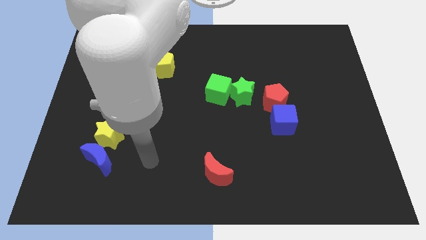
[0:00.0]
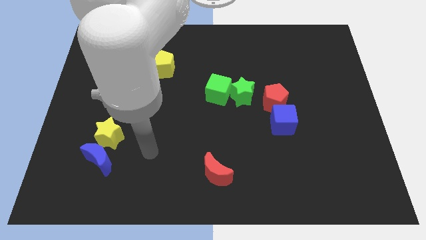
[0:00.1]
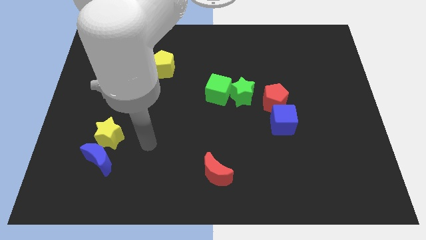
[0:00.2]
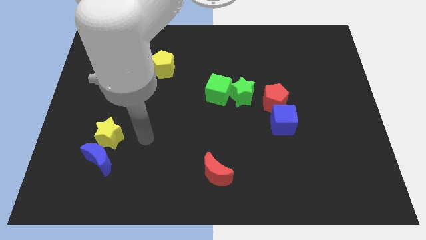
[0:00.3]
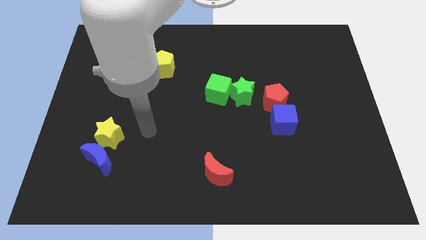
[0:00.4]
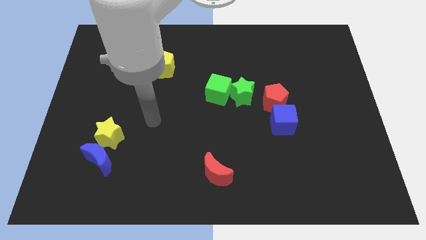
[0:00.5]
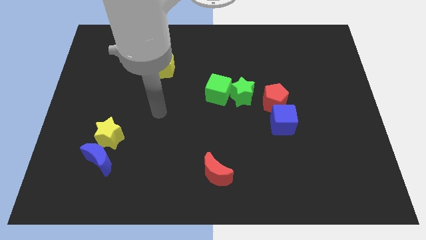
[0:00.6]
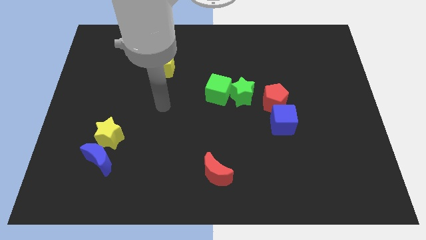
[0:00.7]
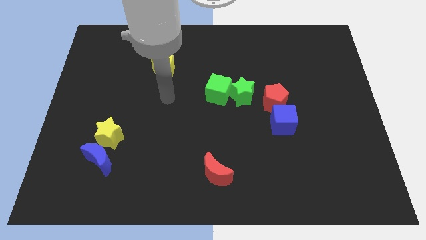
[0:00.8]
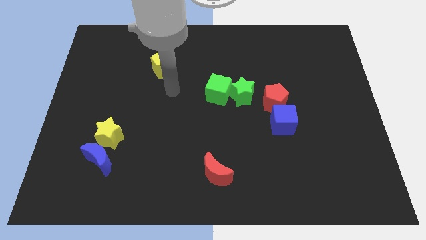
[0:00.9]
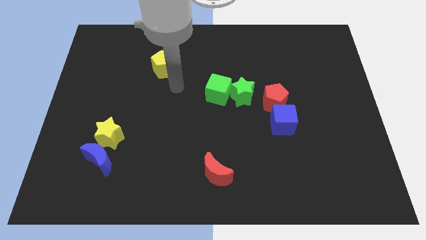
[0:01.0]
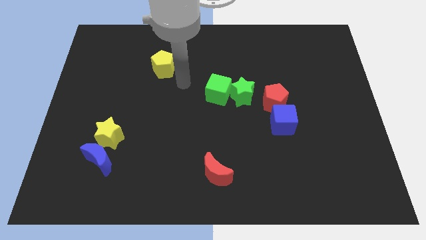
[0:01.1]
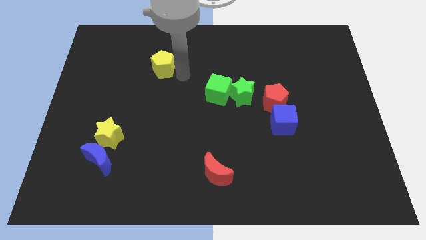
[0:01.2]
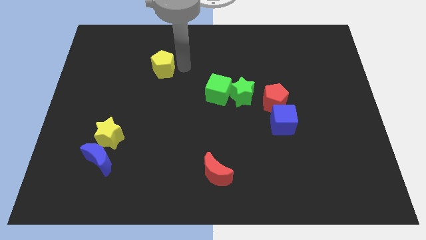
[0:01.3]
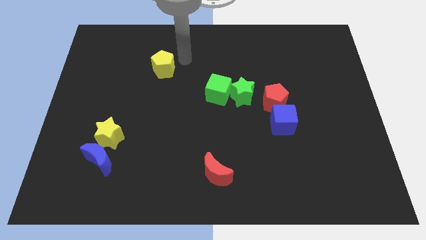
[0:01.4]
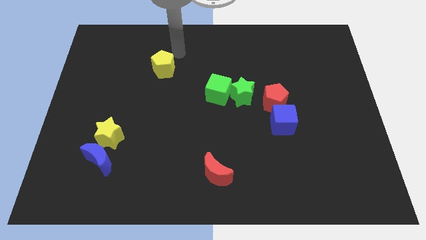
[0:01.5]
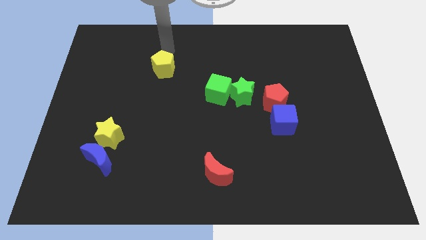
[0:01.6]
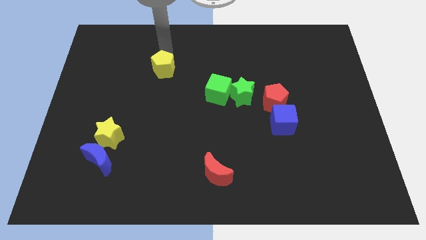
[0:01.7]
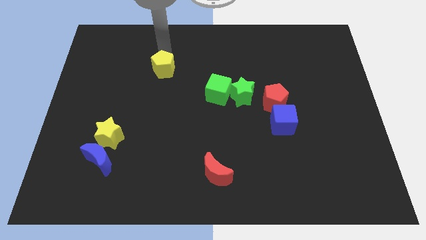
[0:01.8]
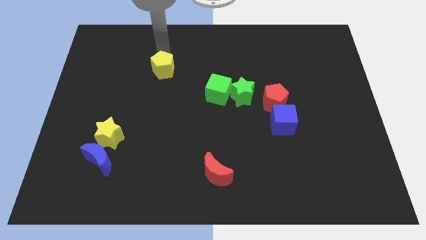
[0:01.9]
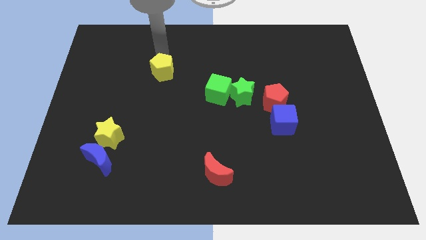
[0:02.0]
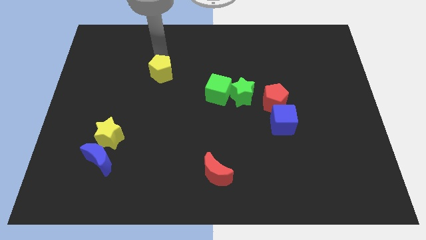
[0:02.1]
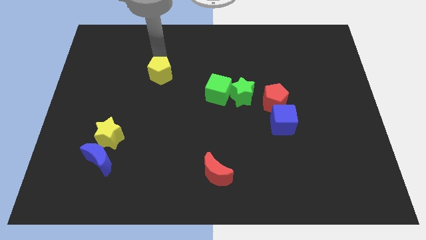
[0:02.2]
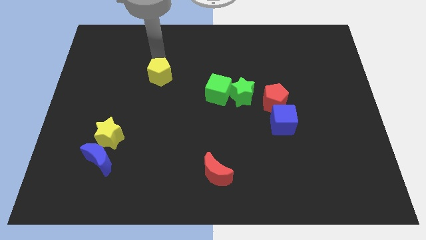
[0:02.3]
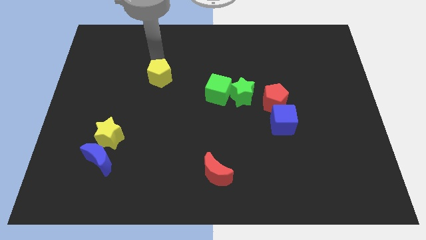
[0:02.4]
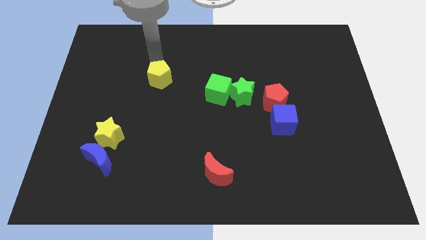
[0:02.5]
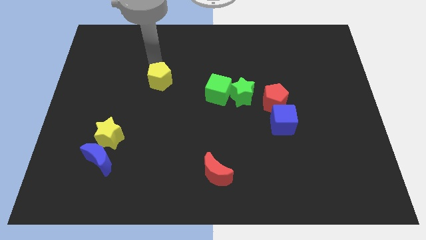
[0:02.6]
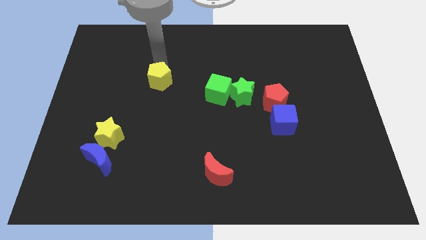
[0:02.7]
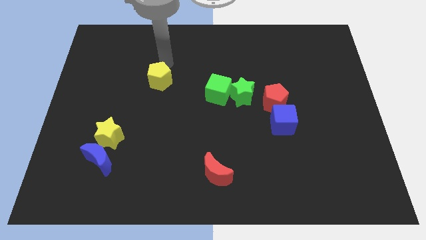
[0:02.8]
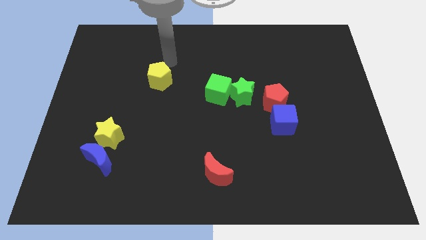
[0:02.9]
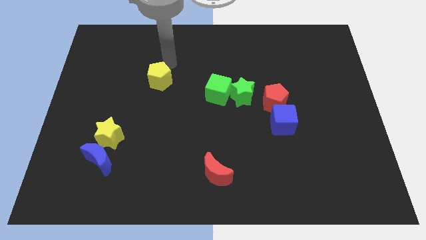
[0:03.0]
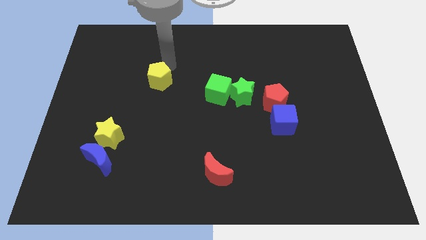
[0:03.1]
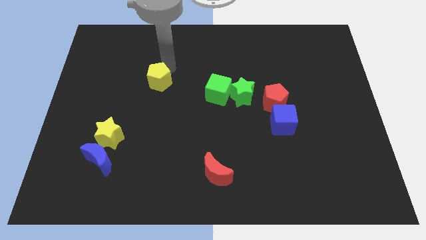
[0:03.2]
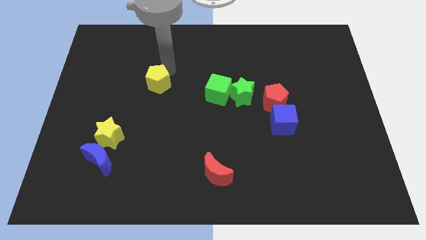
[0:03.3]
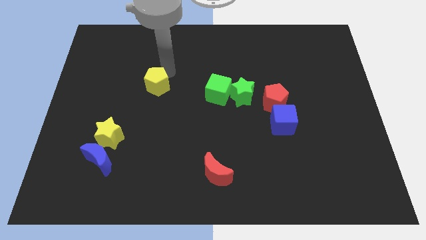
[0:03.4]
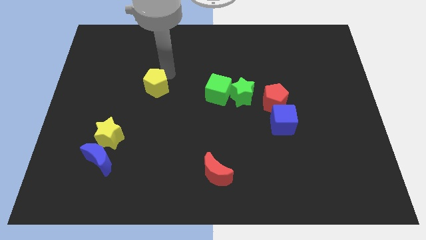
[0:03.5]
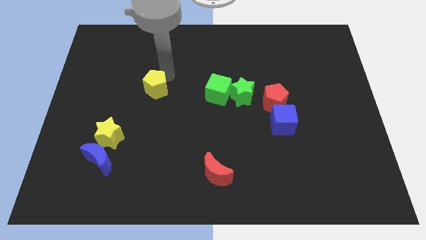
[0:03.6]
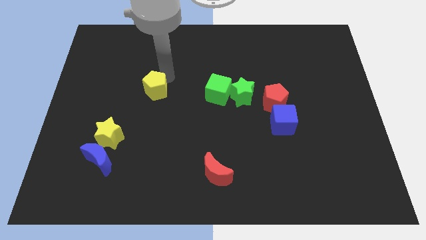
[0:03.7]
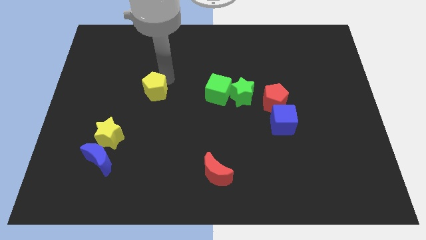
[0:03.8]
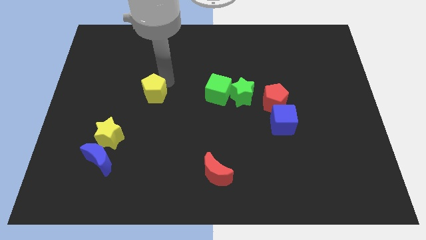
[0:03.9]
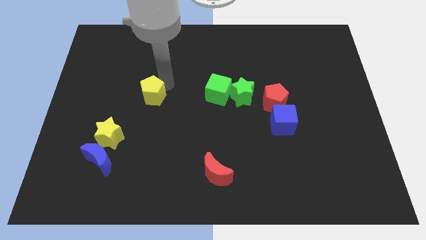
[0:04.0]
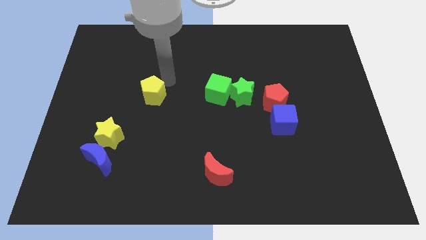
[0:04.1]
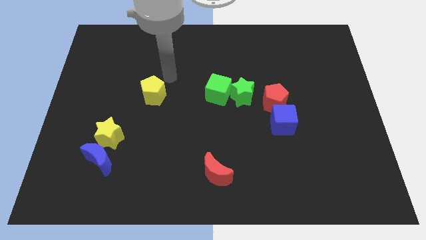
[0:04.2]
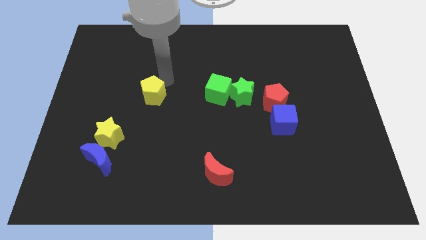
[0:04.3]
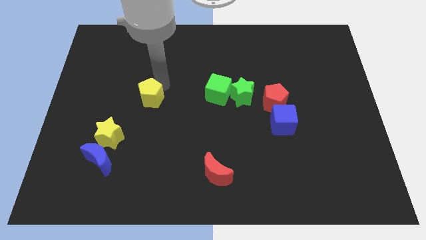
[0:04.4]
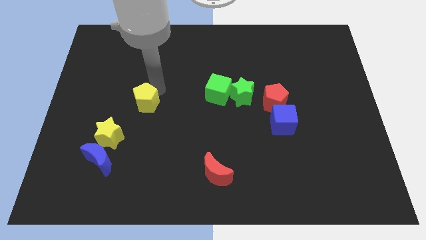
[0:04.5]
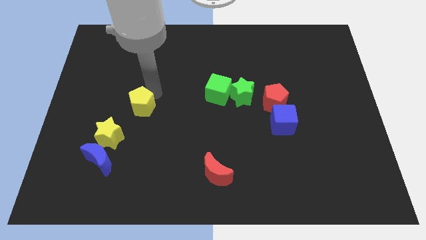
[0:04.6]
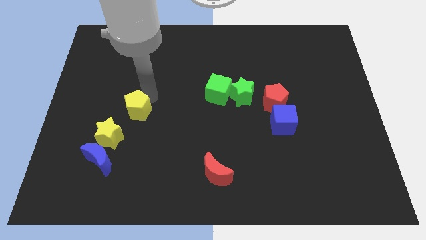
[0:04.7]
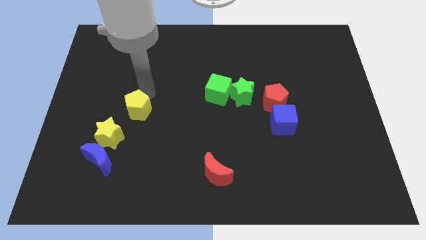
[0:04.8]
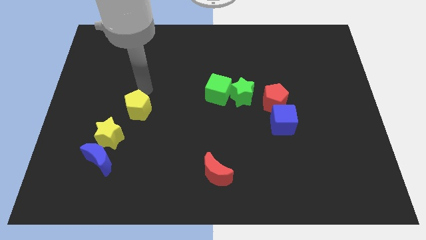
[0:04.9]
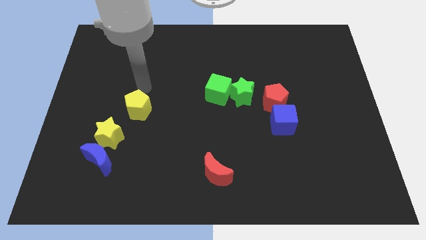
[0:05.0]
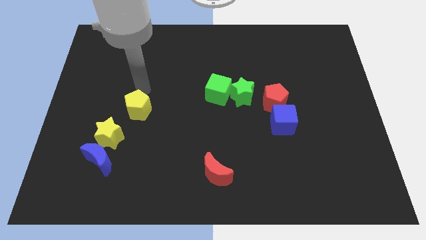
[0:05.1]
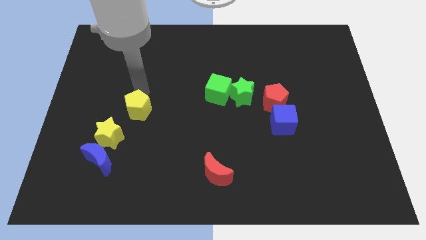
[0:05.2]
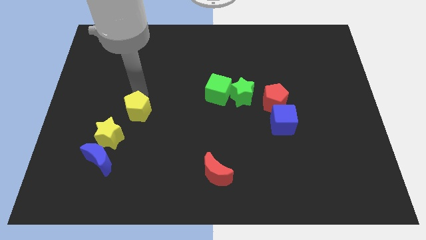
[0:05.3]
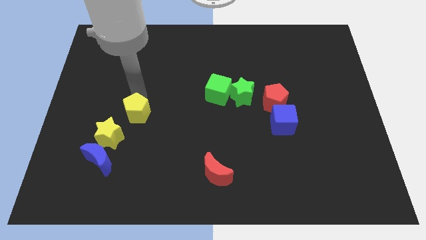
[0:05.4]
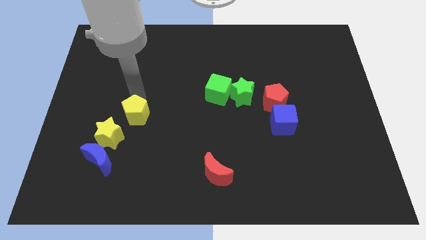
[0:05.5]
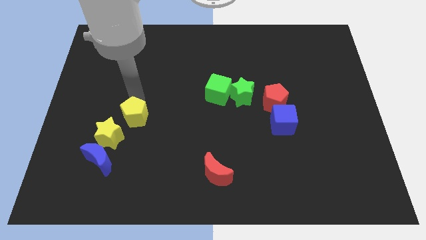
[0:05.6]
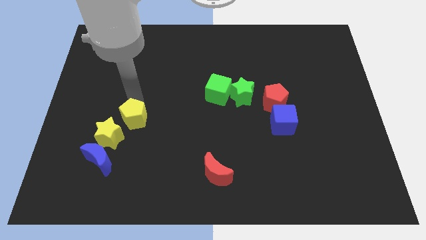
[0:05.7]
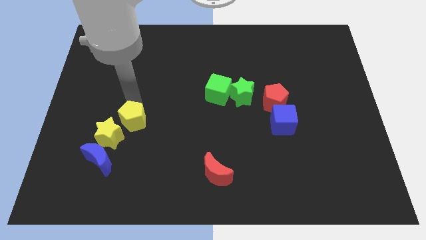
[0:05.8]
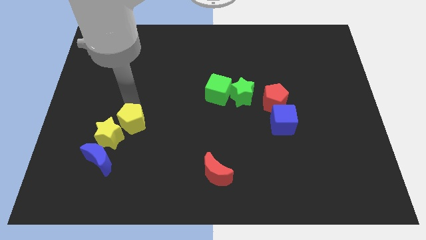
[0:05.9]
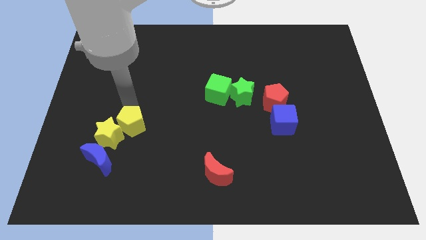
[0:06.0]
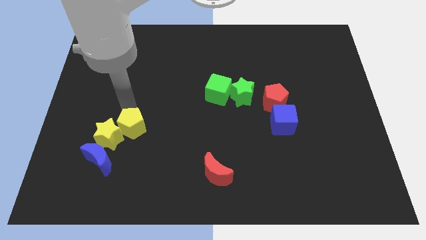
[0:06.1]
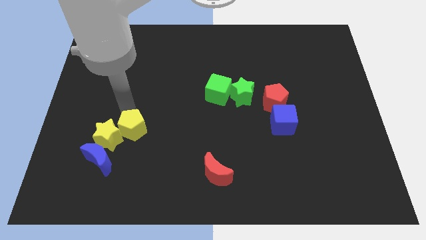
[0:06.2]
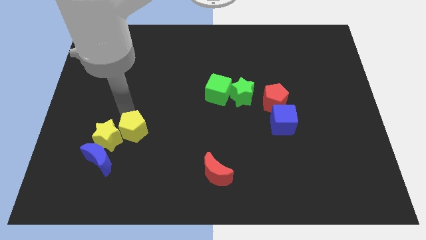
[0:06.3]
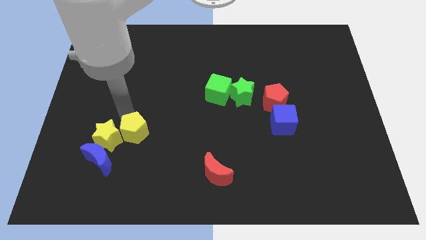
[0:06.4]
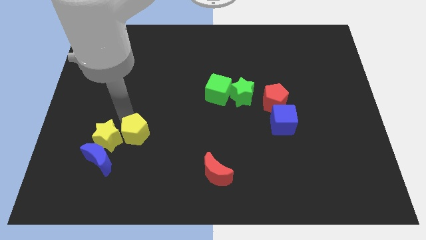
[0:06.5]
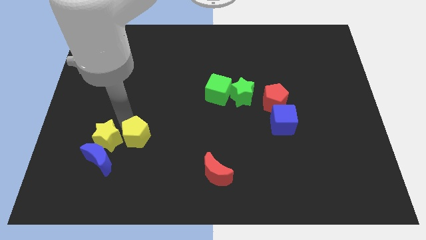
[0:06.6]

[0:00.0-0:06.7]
move the yellow pentagon downwards
